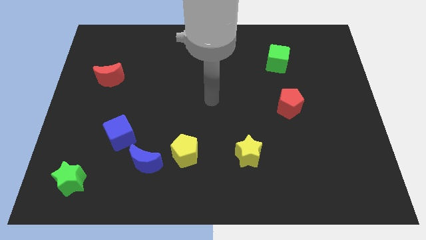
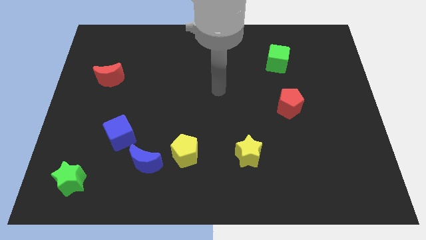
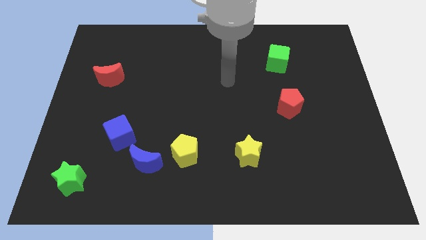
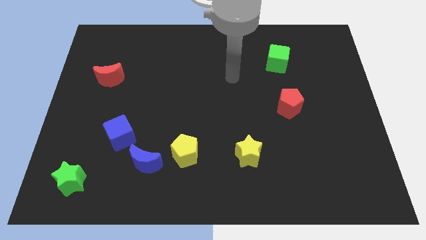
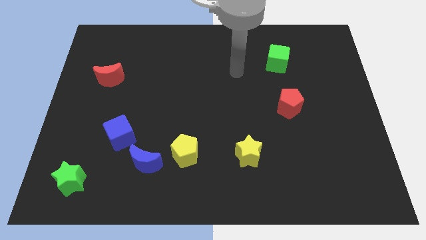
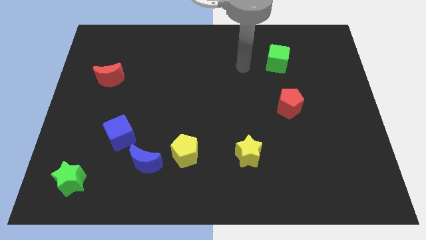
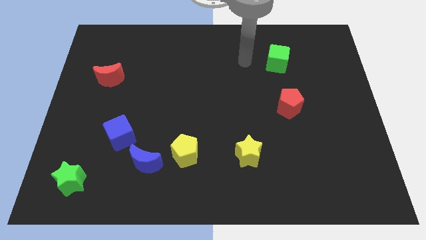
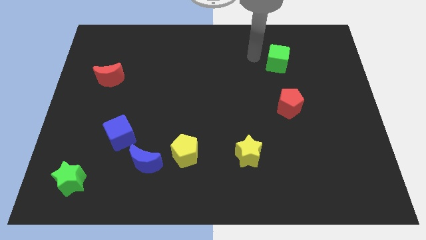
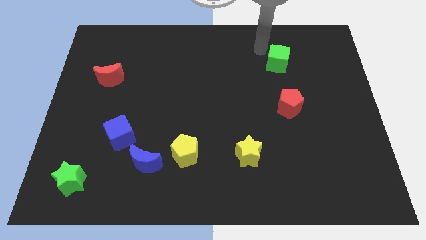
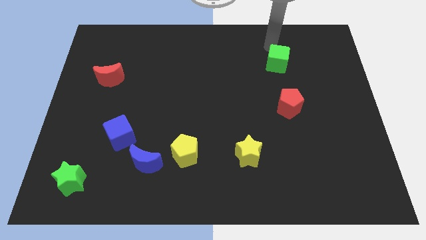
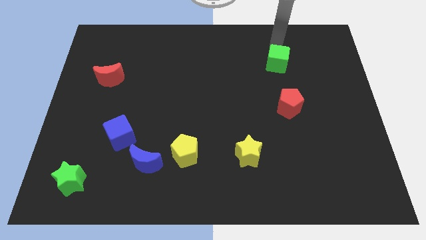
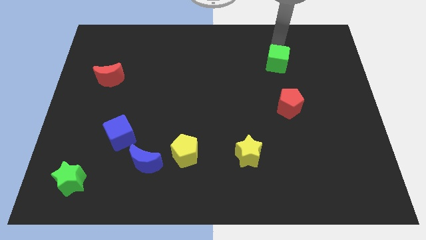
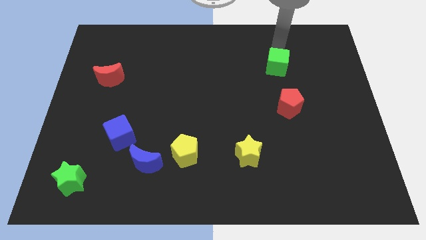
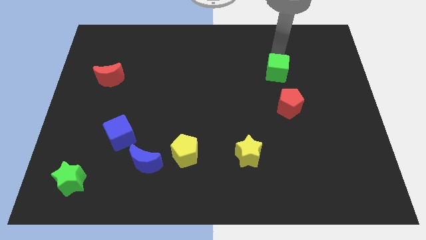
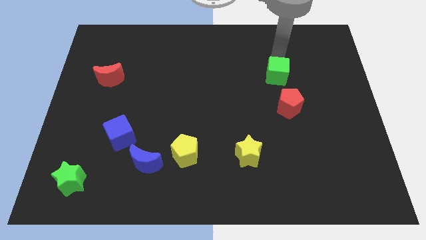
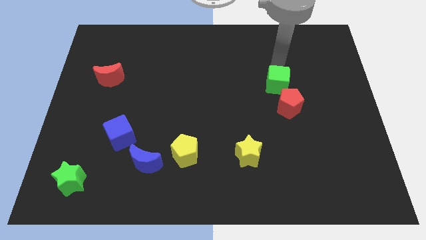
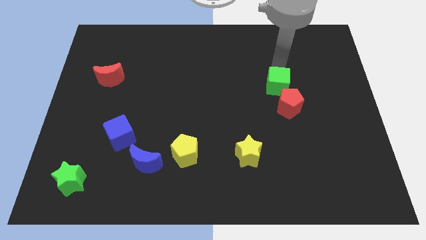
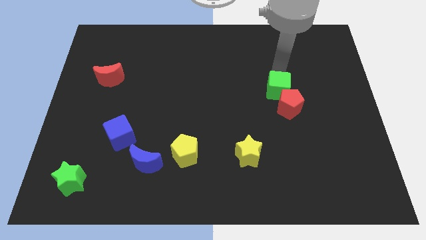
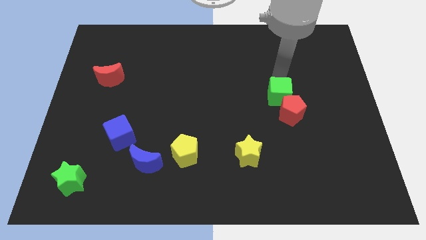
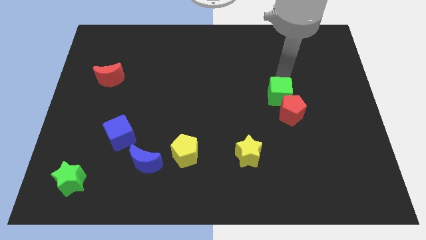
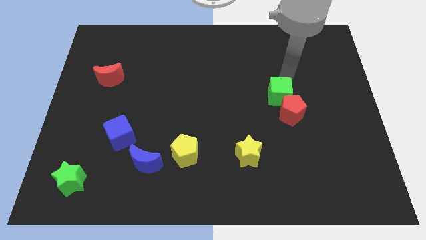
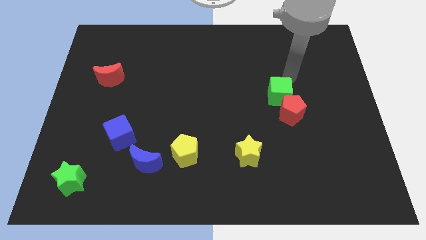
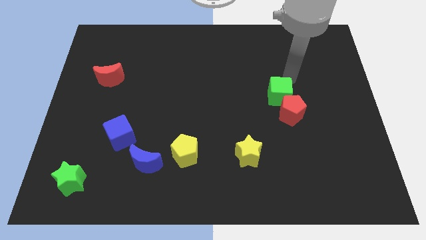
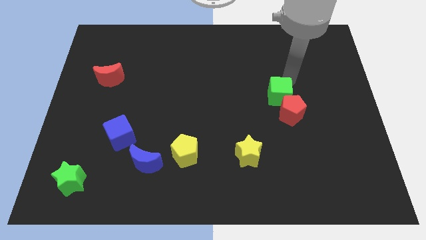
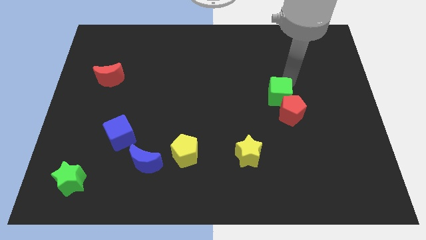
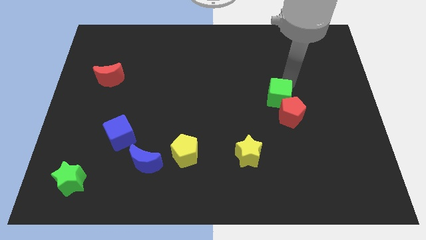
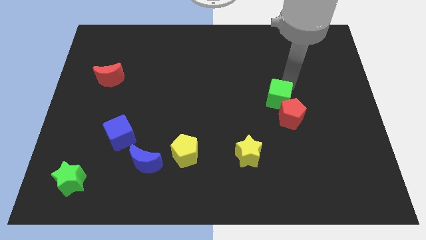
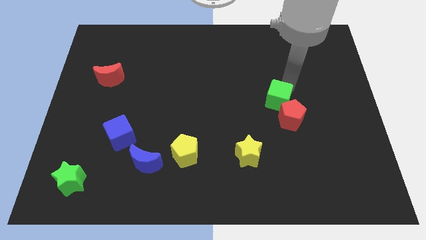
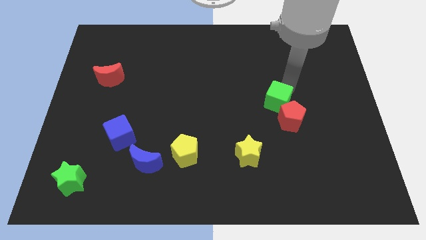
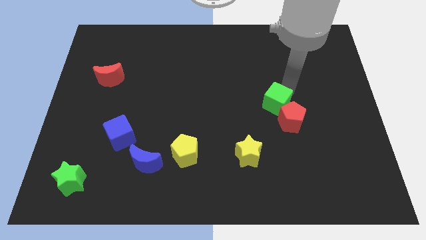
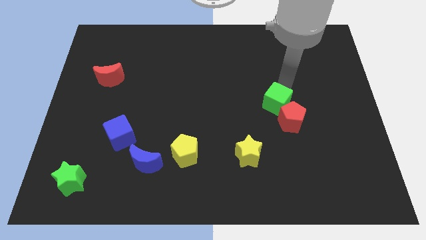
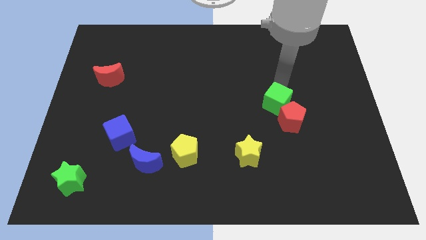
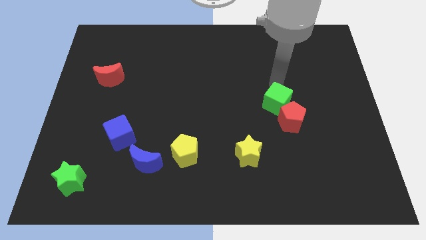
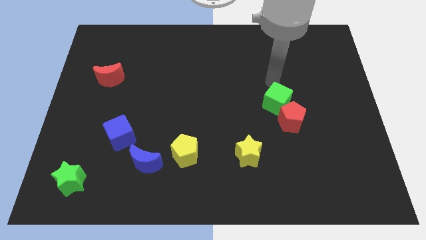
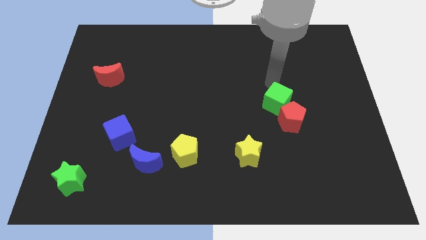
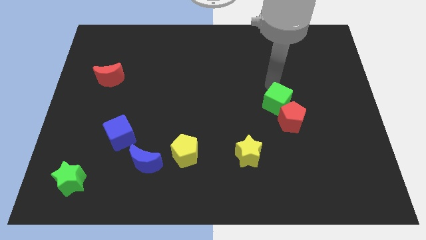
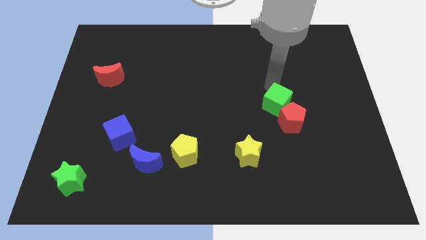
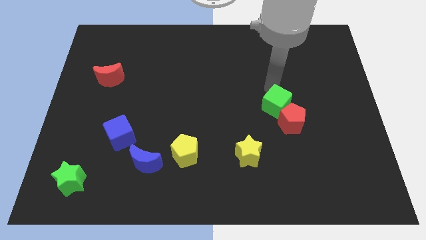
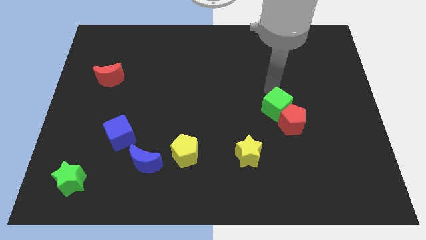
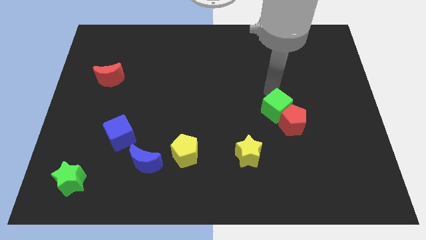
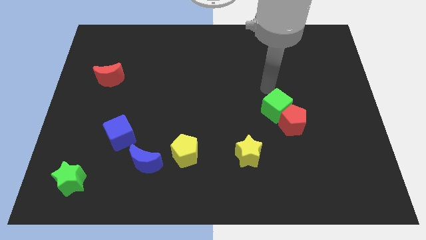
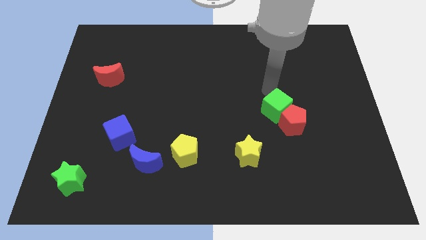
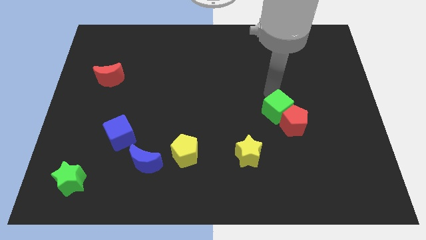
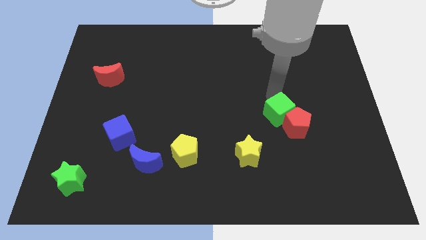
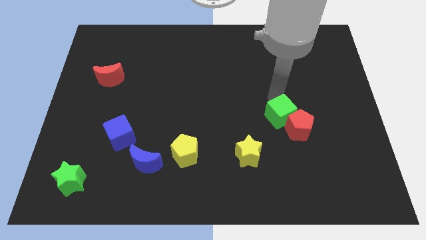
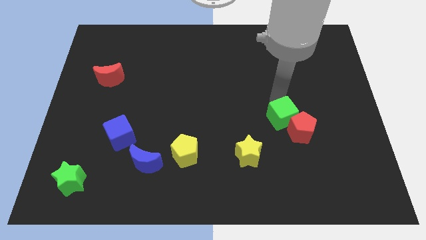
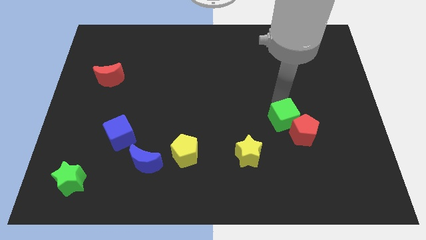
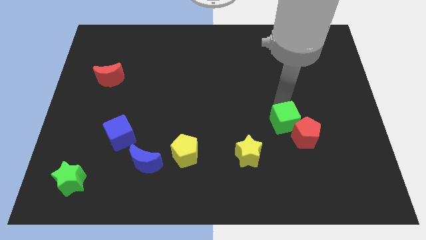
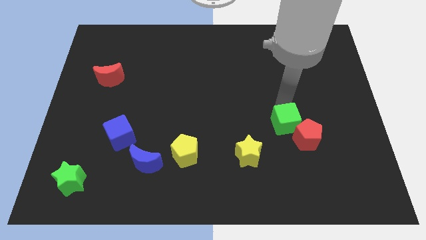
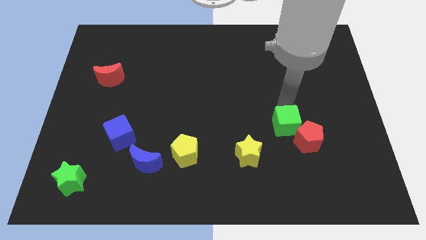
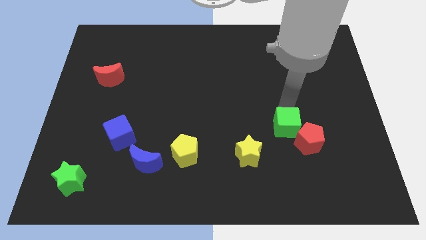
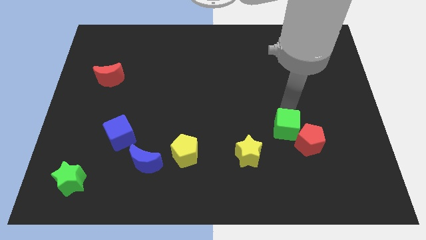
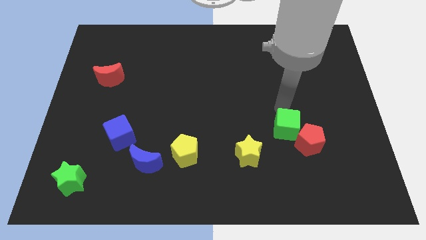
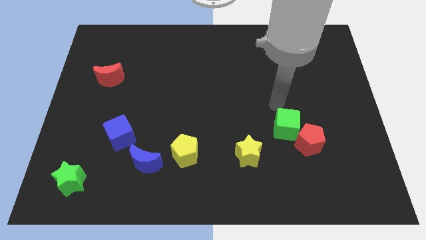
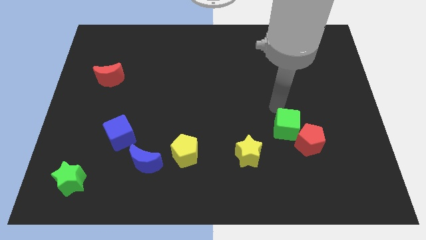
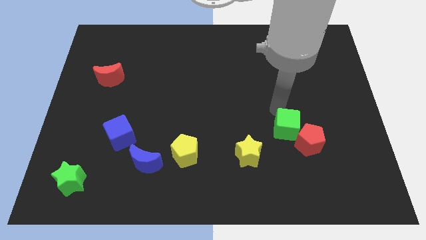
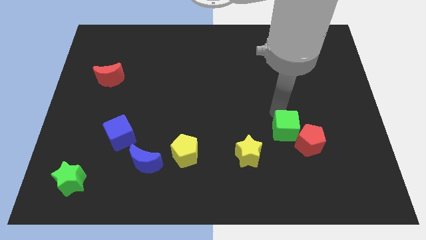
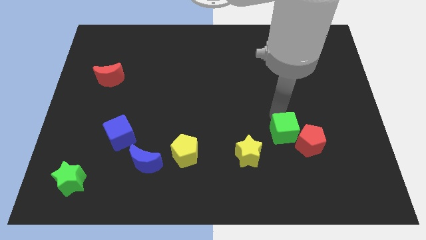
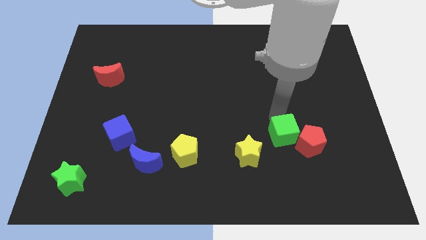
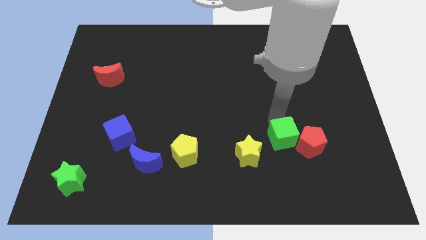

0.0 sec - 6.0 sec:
move the green cube to the right of the yellow star

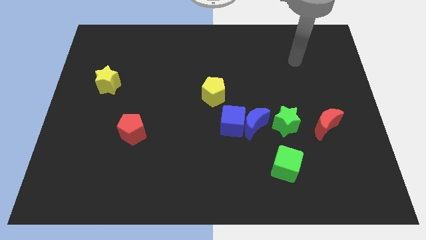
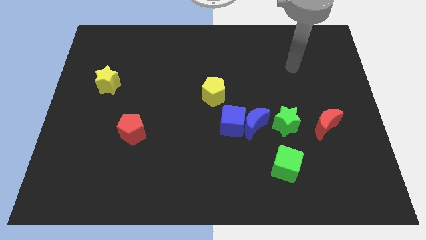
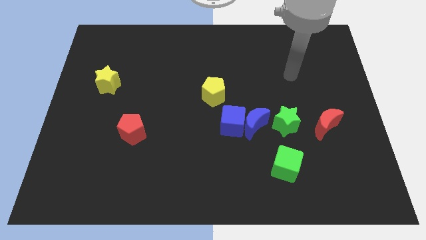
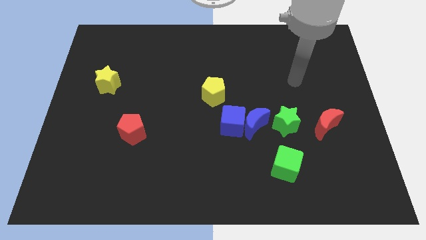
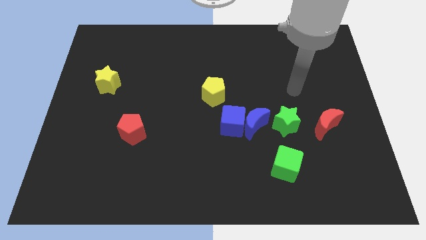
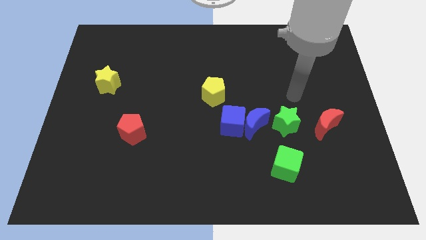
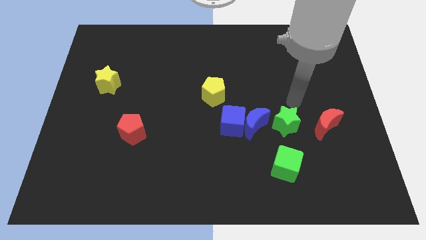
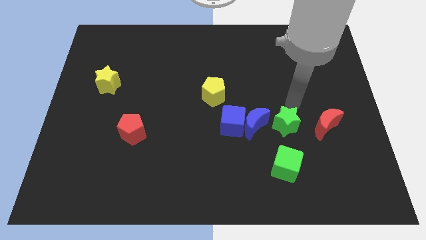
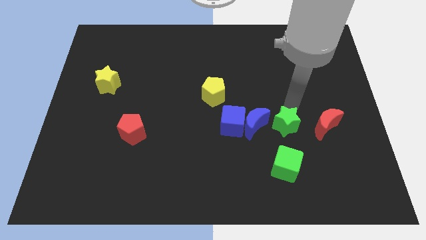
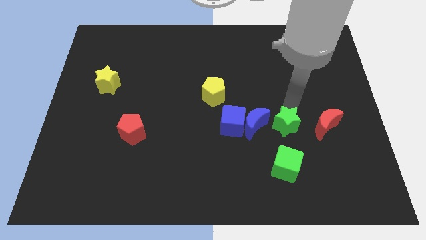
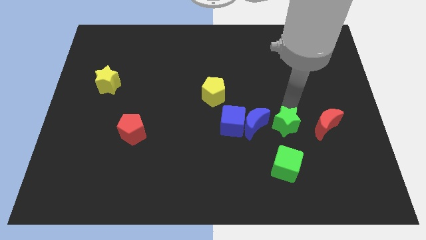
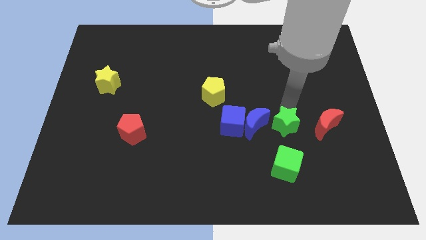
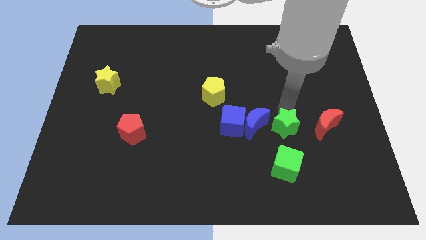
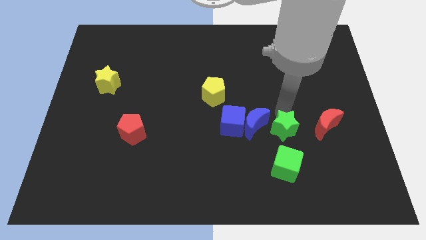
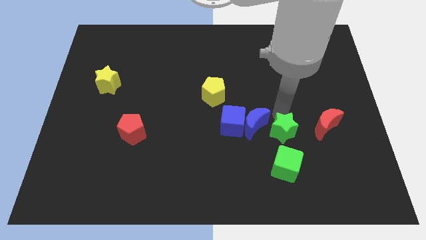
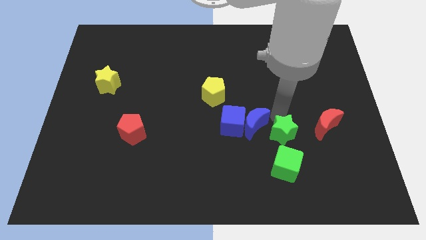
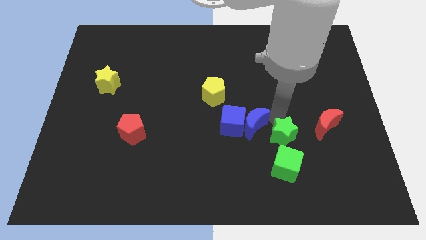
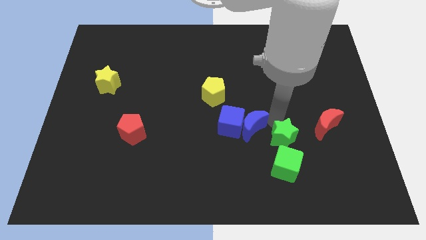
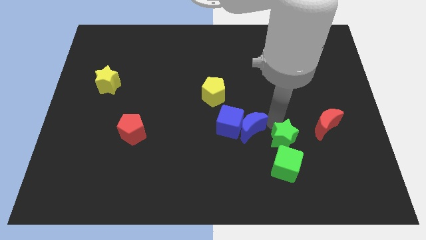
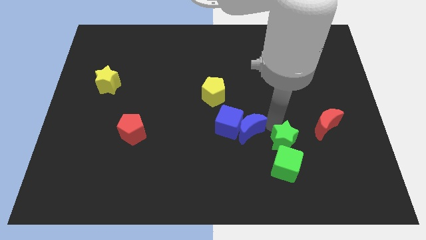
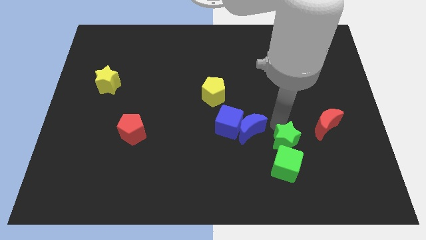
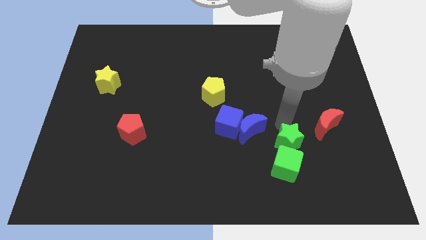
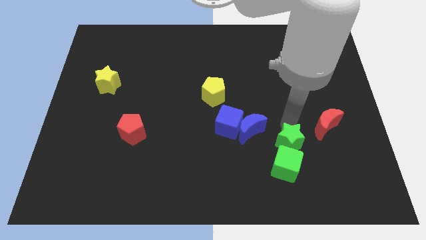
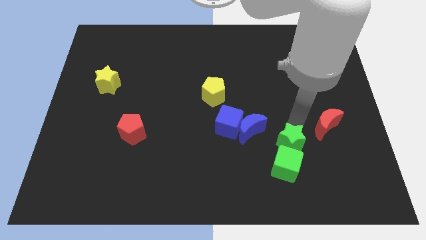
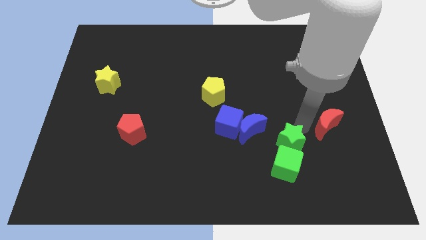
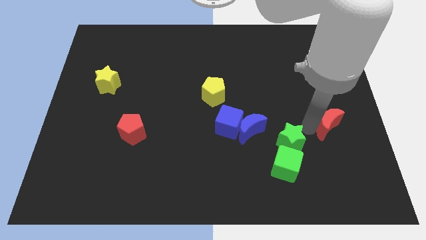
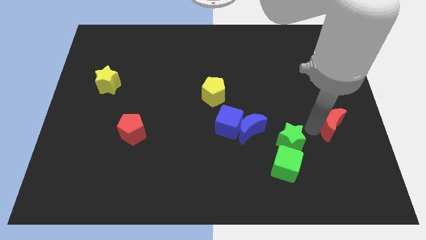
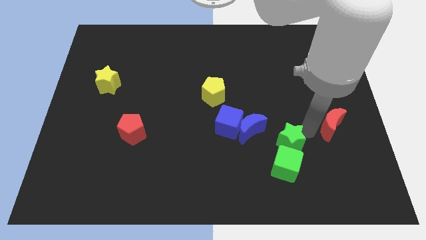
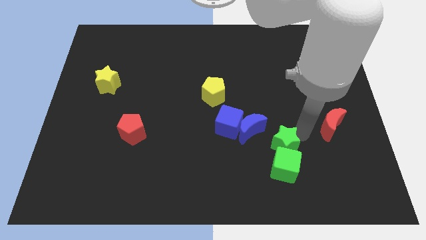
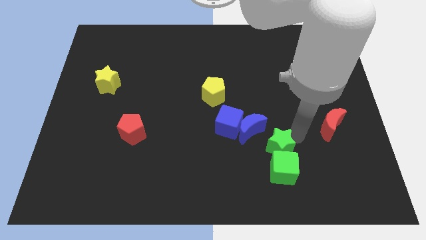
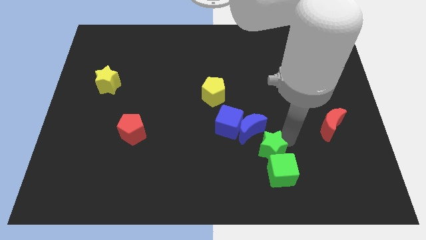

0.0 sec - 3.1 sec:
slide the green star to the bottom side of the blue moon
